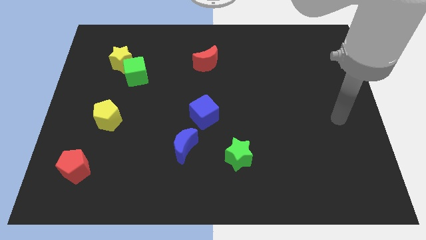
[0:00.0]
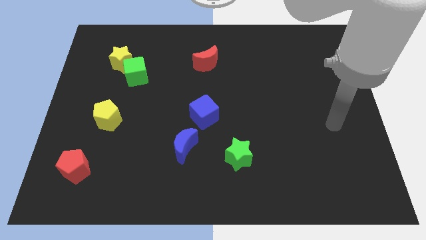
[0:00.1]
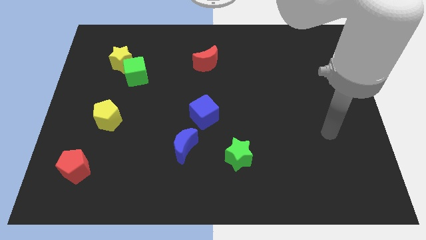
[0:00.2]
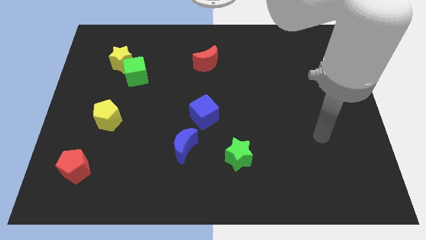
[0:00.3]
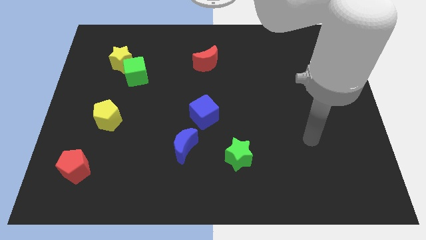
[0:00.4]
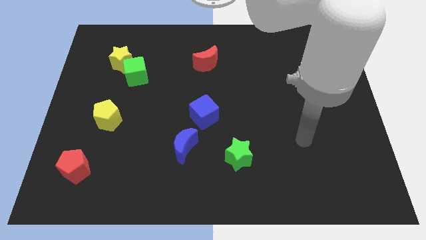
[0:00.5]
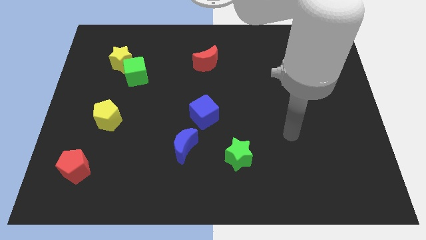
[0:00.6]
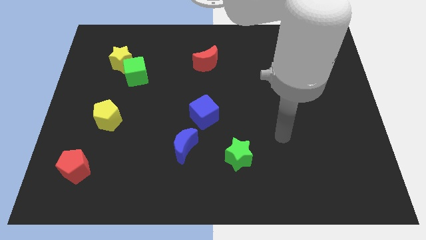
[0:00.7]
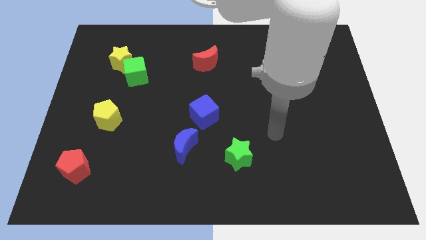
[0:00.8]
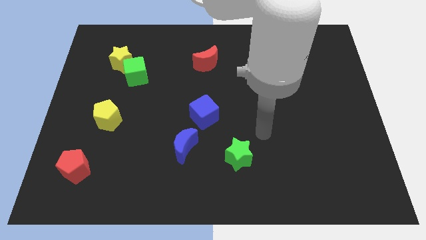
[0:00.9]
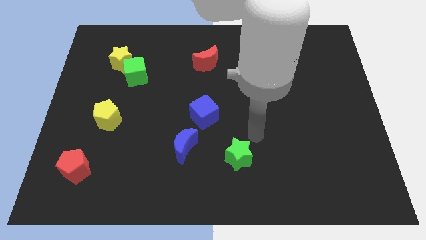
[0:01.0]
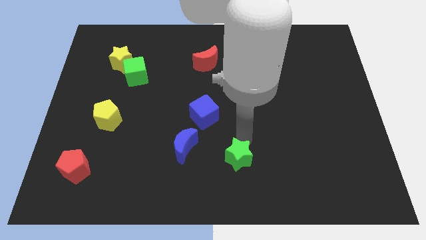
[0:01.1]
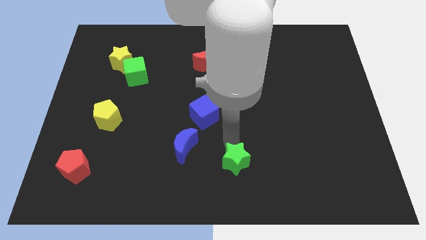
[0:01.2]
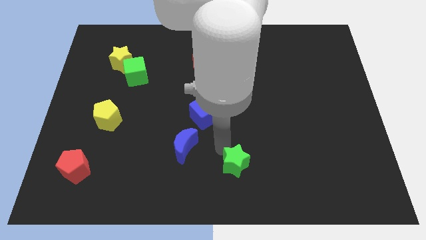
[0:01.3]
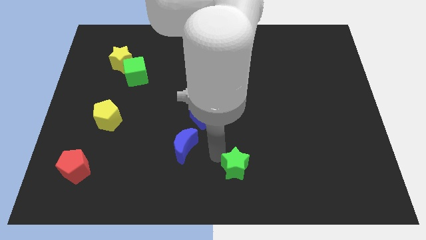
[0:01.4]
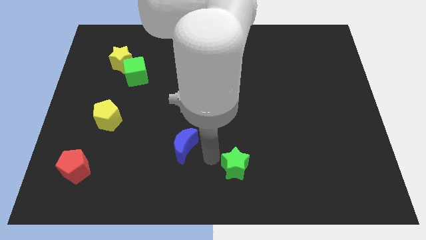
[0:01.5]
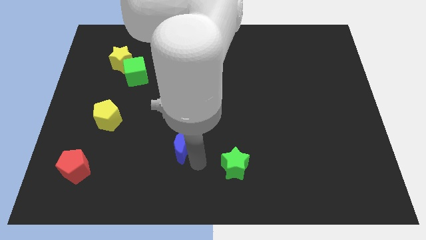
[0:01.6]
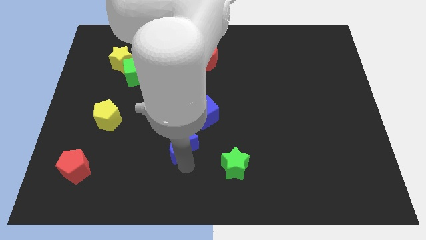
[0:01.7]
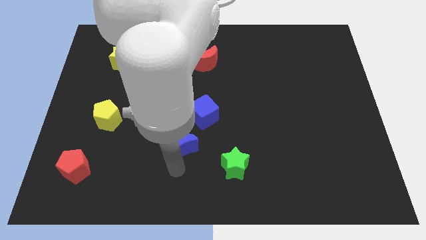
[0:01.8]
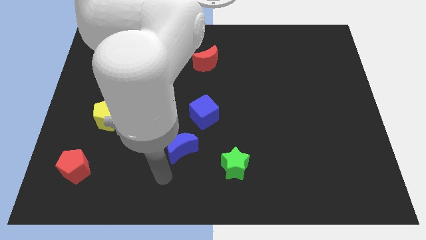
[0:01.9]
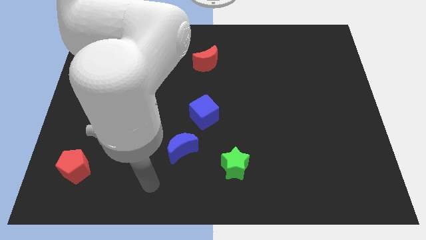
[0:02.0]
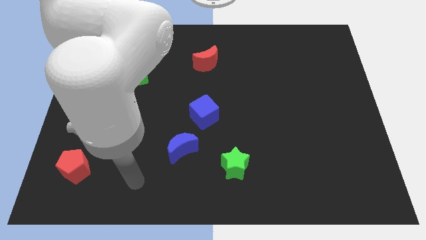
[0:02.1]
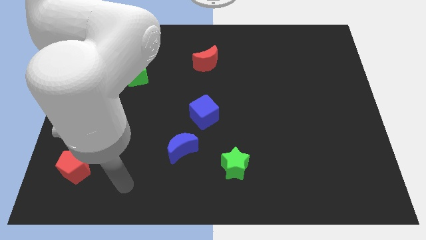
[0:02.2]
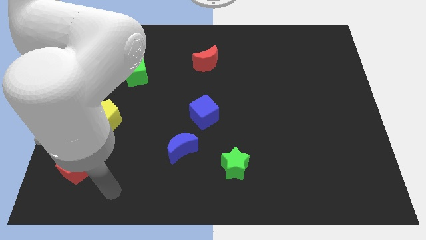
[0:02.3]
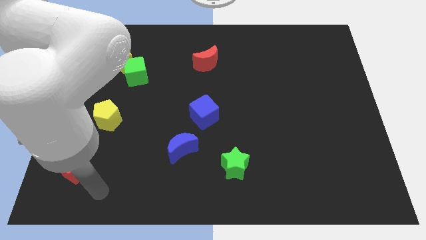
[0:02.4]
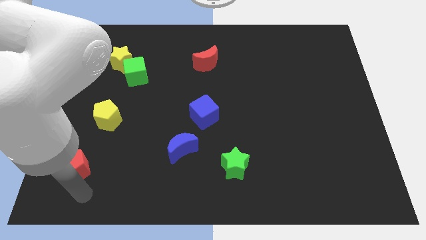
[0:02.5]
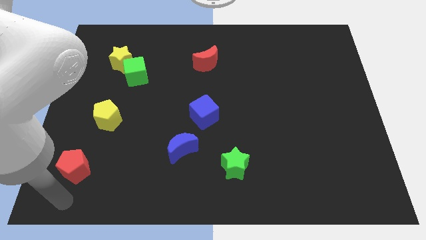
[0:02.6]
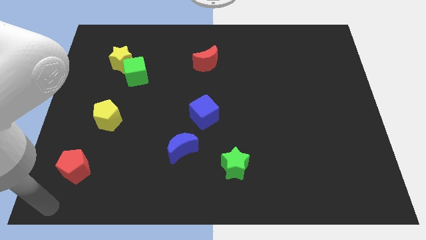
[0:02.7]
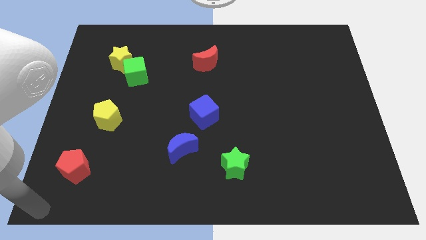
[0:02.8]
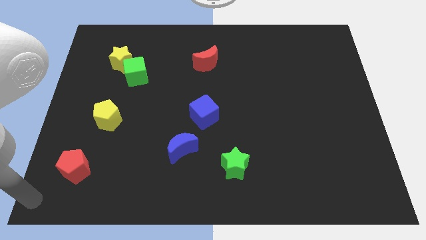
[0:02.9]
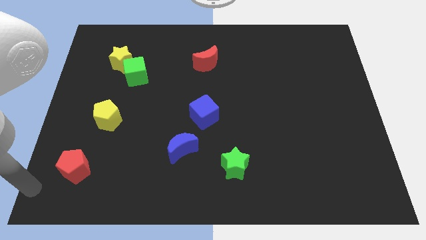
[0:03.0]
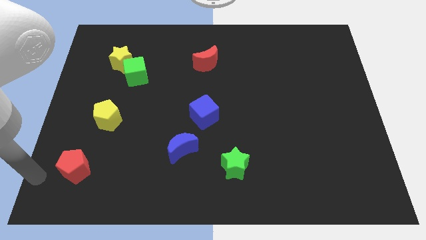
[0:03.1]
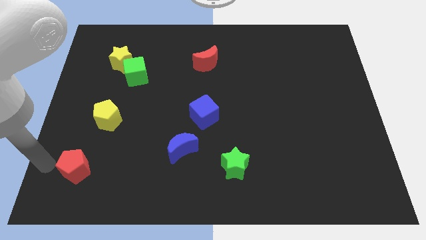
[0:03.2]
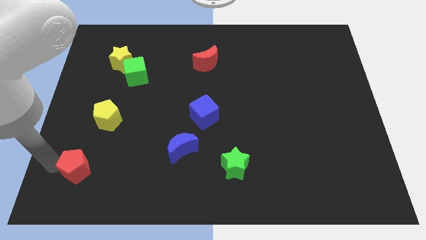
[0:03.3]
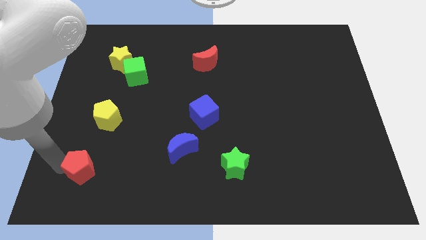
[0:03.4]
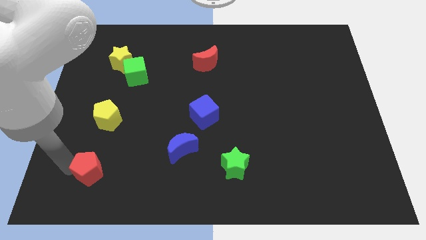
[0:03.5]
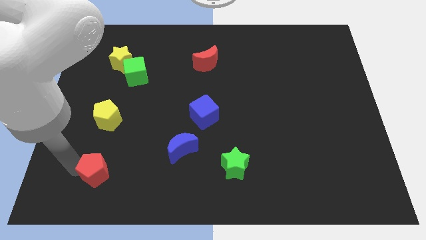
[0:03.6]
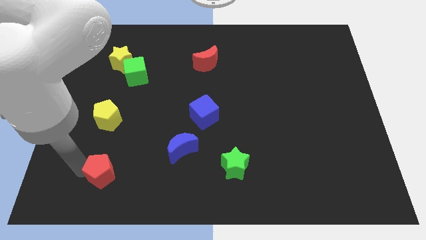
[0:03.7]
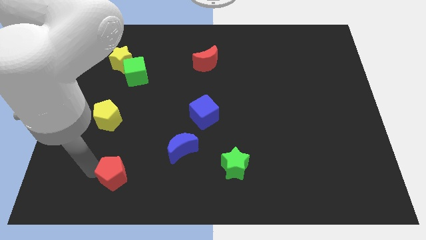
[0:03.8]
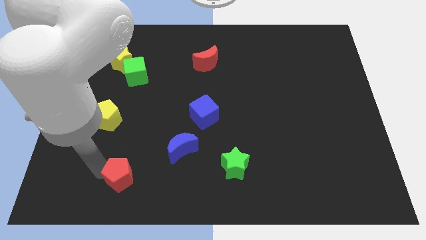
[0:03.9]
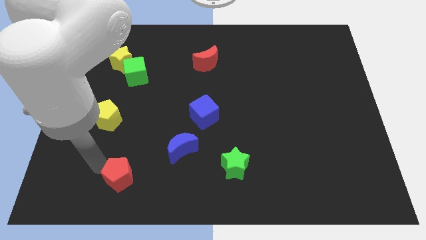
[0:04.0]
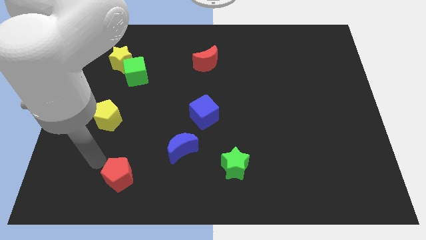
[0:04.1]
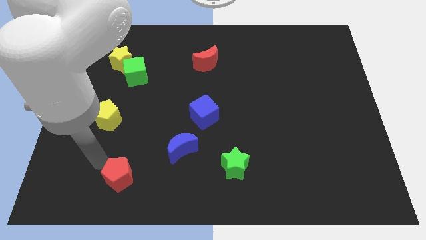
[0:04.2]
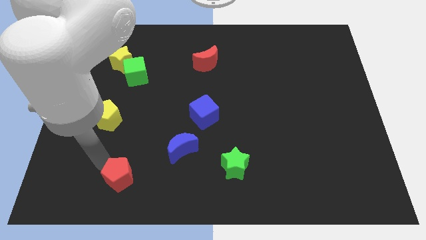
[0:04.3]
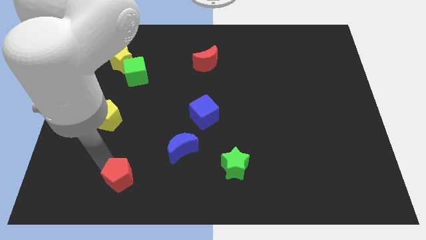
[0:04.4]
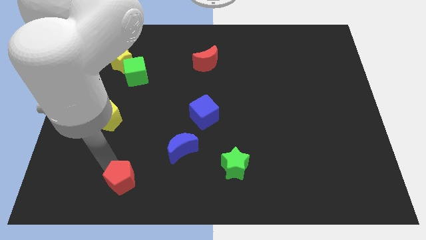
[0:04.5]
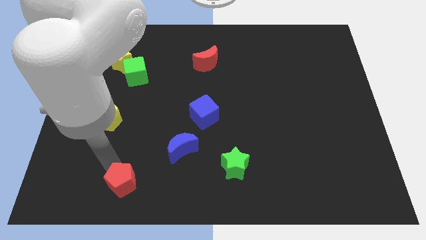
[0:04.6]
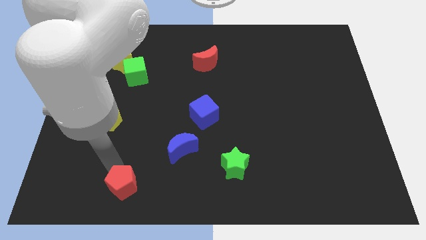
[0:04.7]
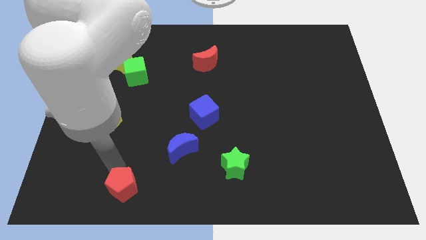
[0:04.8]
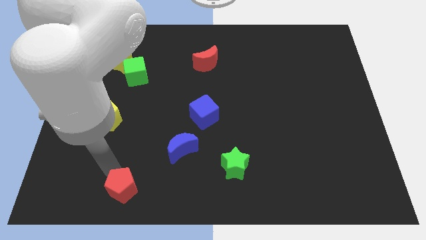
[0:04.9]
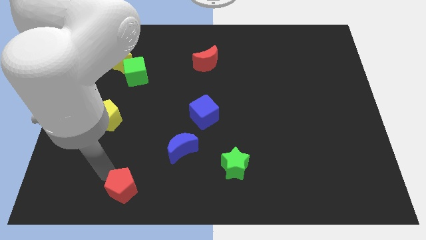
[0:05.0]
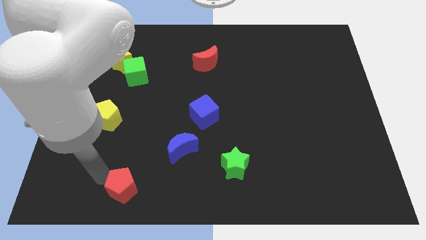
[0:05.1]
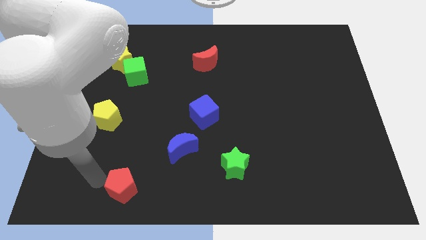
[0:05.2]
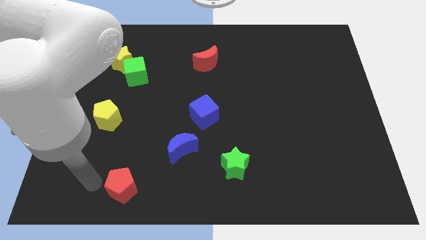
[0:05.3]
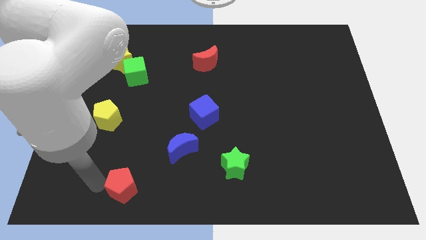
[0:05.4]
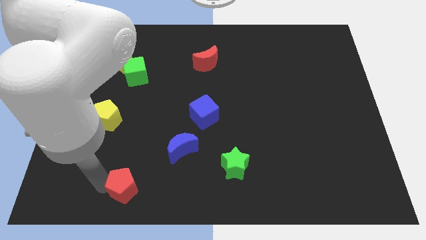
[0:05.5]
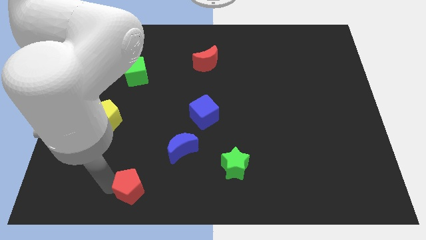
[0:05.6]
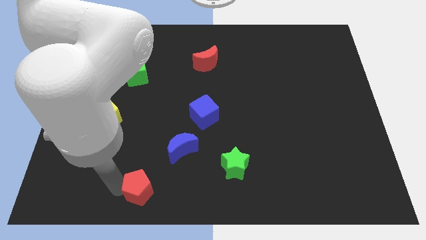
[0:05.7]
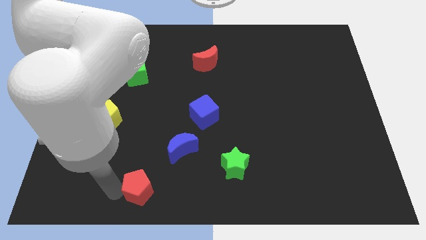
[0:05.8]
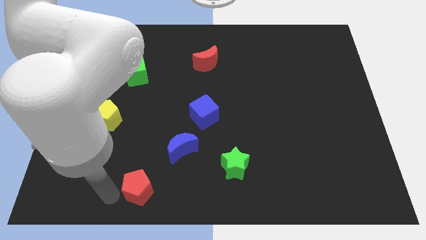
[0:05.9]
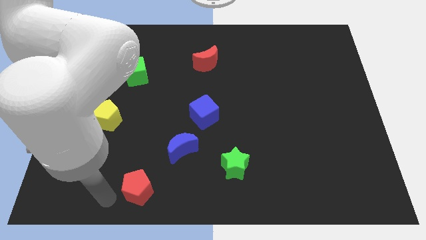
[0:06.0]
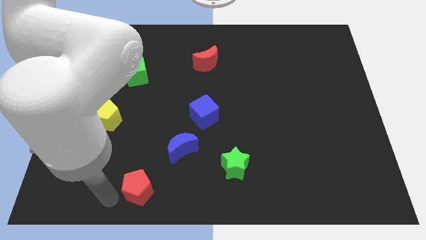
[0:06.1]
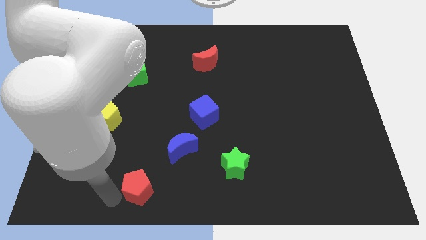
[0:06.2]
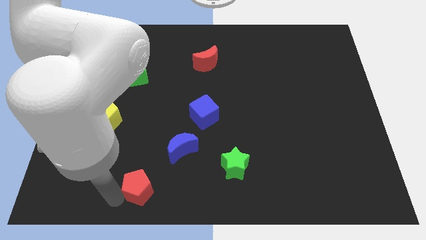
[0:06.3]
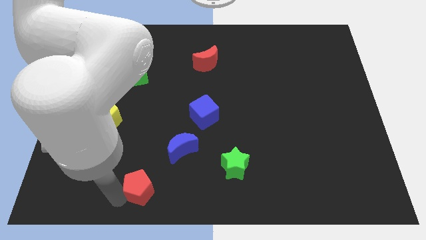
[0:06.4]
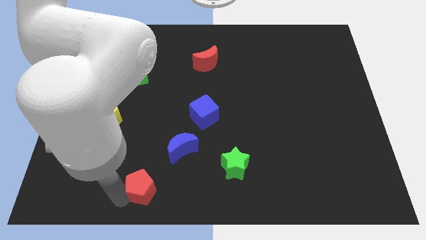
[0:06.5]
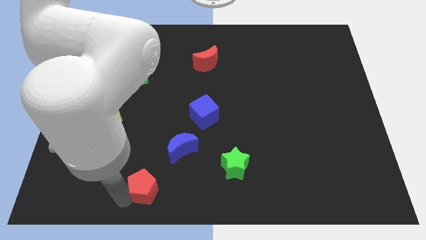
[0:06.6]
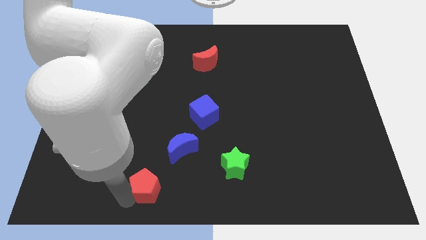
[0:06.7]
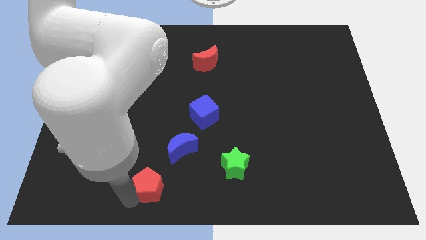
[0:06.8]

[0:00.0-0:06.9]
push the red pentagon to the bottom side
